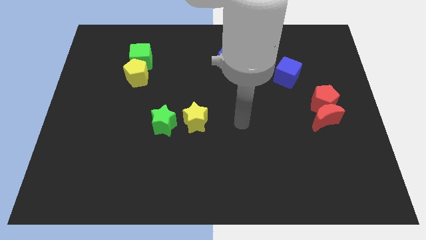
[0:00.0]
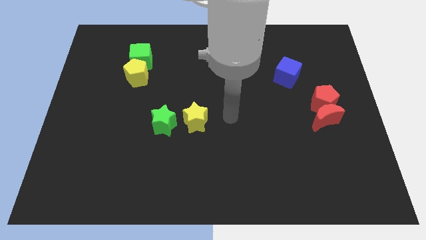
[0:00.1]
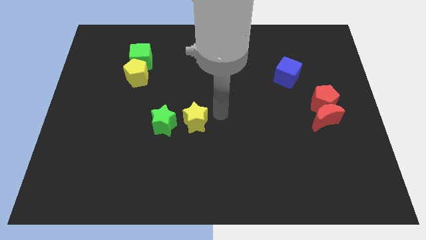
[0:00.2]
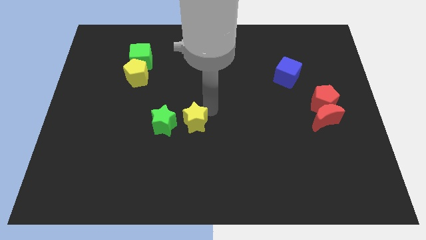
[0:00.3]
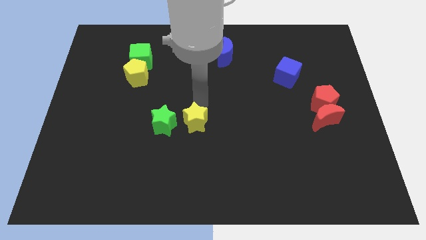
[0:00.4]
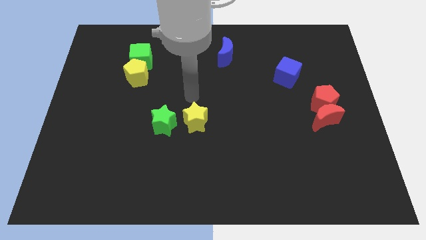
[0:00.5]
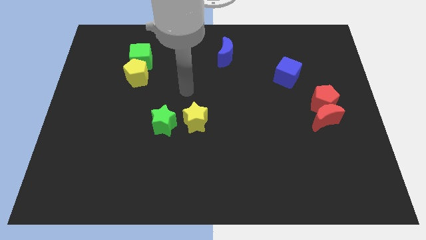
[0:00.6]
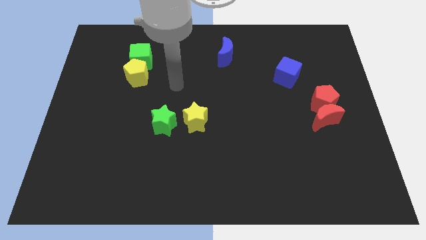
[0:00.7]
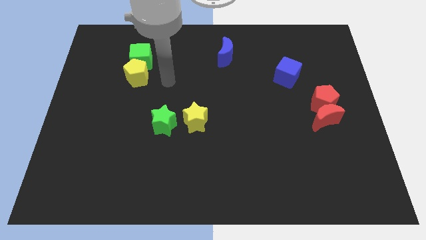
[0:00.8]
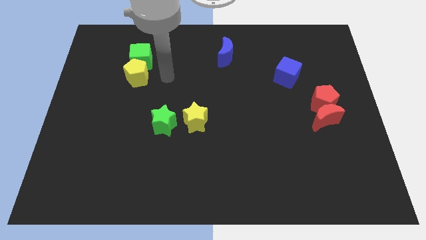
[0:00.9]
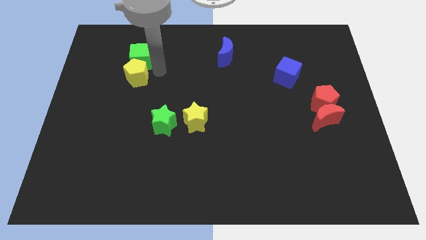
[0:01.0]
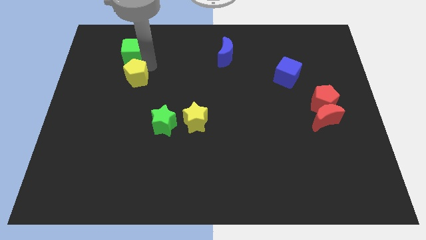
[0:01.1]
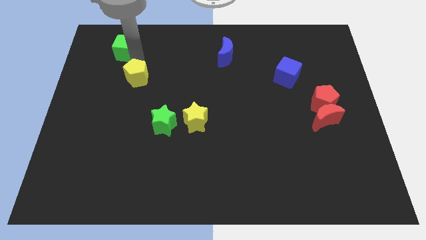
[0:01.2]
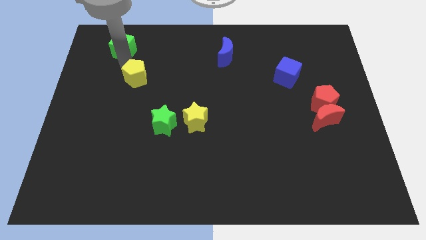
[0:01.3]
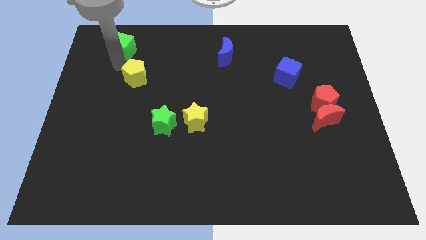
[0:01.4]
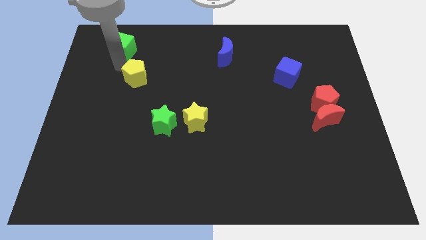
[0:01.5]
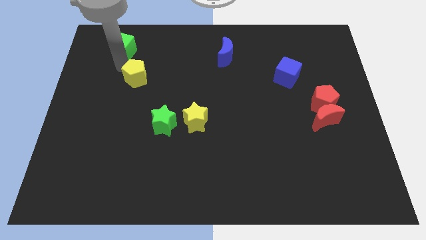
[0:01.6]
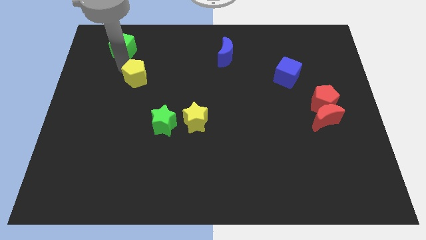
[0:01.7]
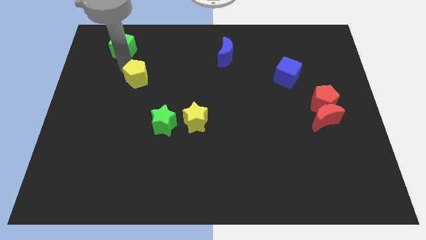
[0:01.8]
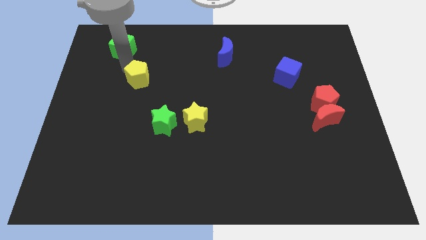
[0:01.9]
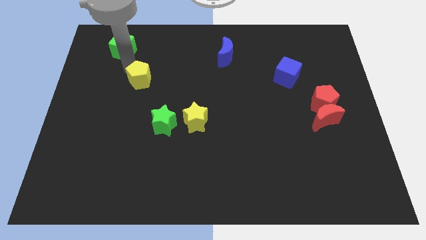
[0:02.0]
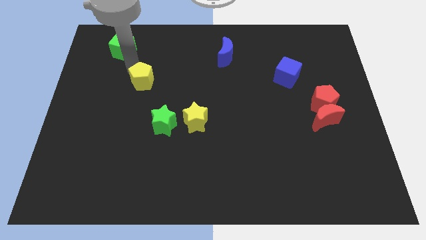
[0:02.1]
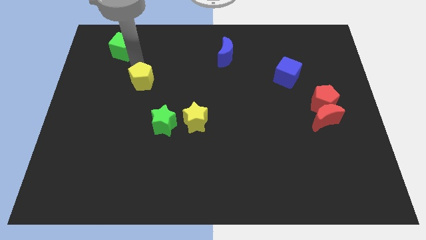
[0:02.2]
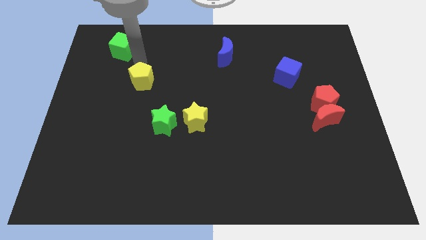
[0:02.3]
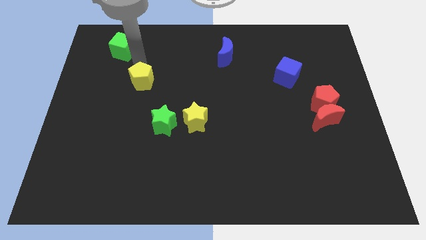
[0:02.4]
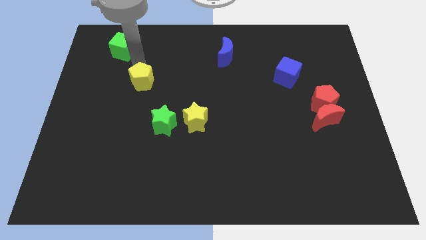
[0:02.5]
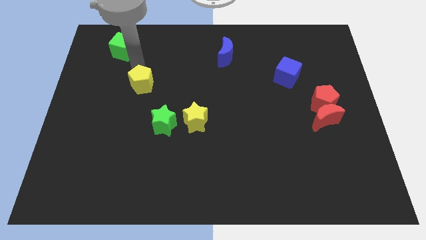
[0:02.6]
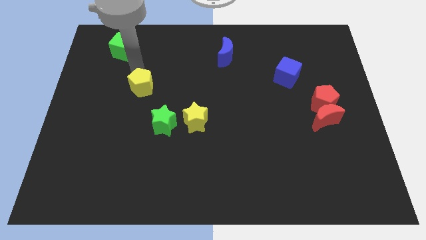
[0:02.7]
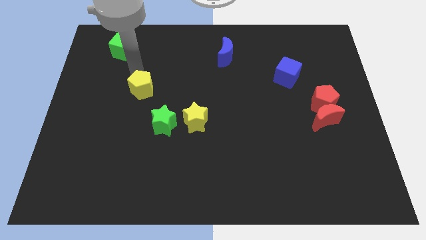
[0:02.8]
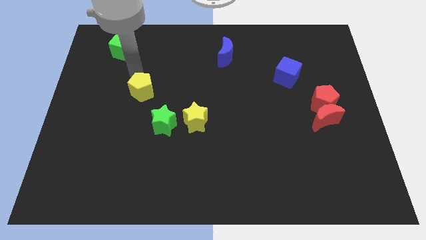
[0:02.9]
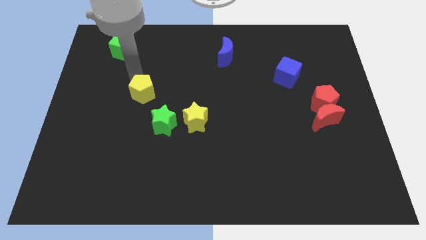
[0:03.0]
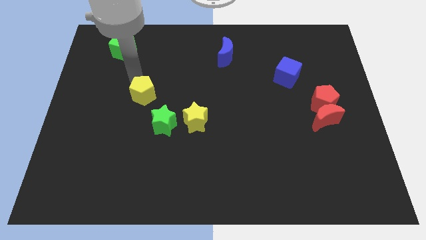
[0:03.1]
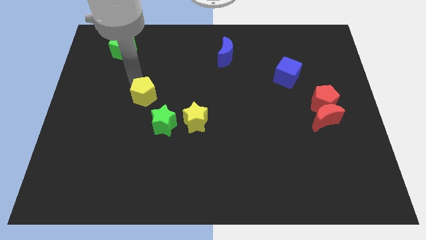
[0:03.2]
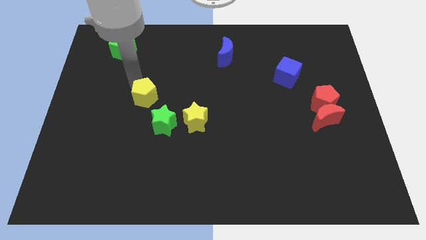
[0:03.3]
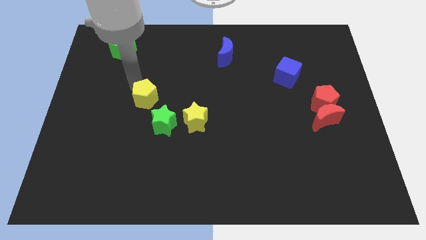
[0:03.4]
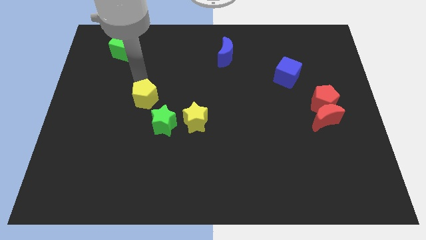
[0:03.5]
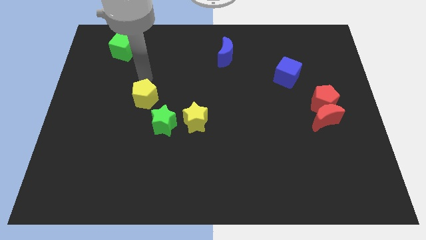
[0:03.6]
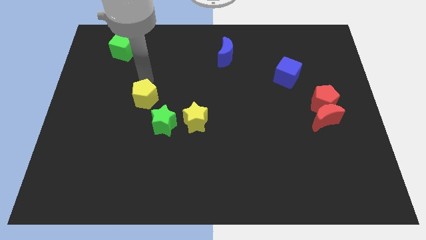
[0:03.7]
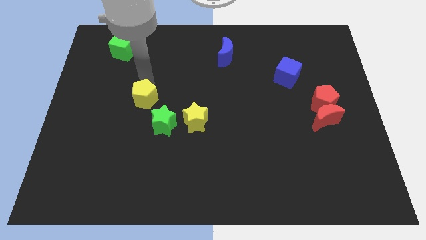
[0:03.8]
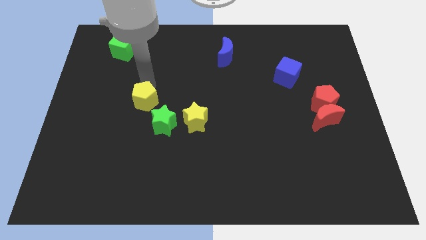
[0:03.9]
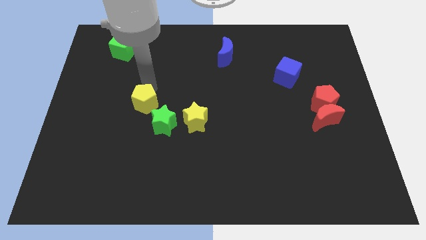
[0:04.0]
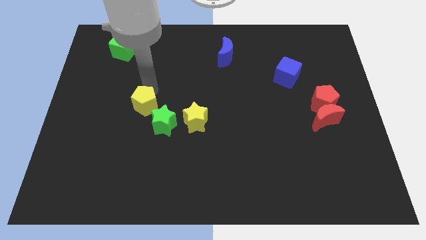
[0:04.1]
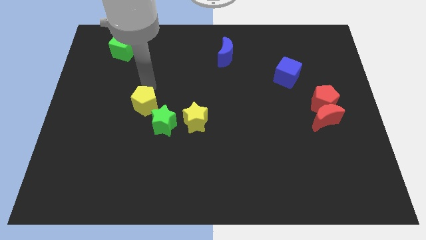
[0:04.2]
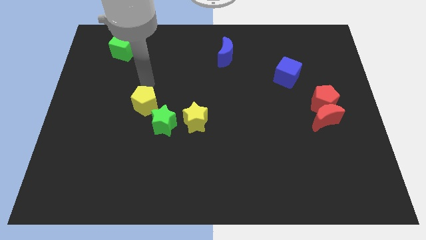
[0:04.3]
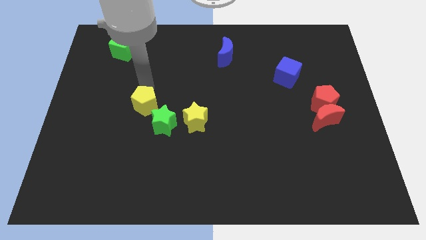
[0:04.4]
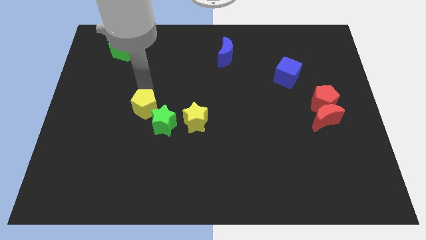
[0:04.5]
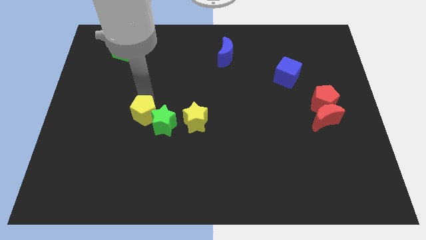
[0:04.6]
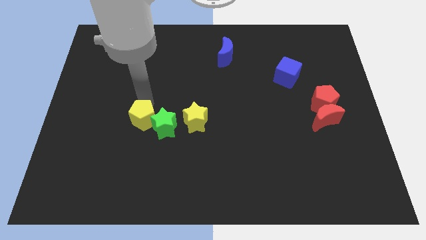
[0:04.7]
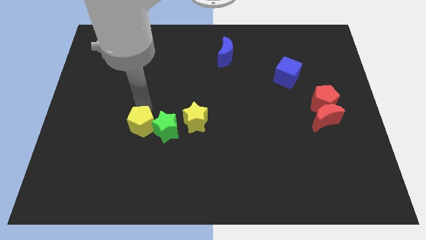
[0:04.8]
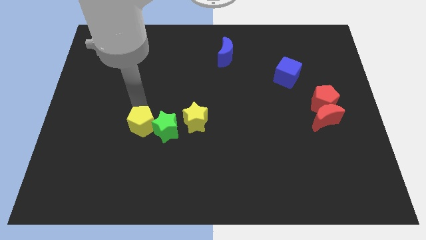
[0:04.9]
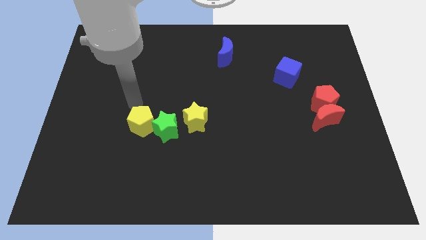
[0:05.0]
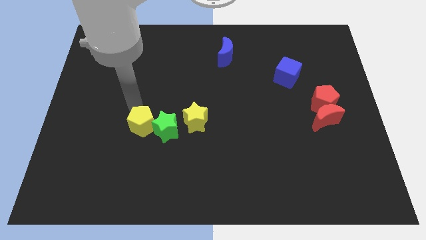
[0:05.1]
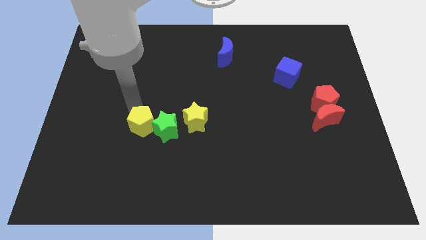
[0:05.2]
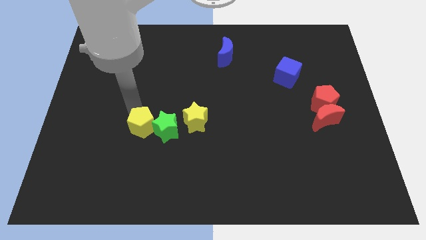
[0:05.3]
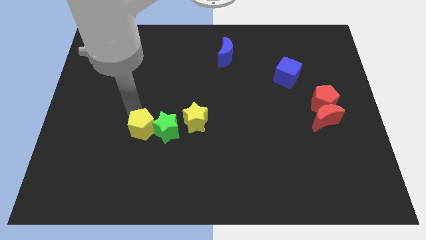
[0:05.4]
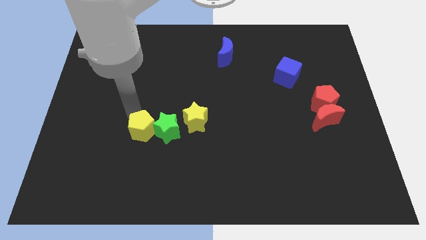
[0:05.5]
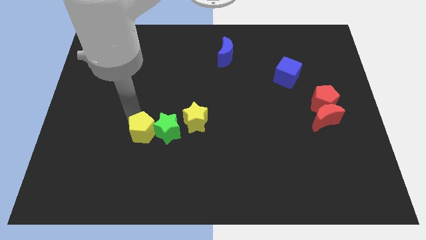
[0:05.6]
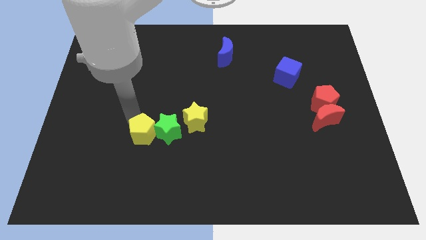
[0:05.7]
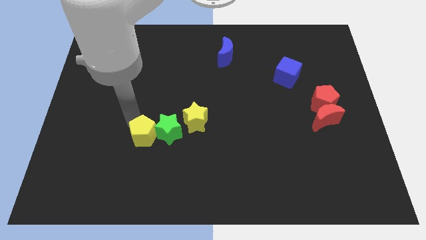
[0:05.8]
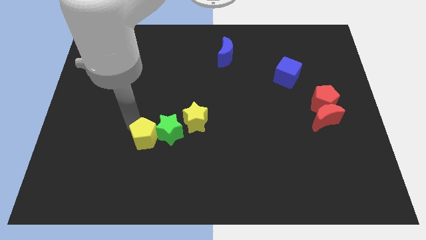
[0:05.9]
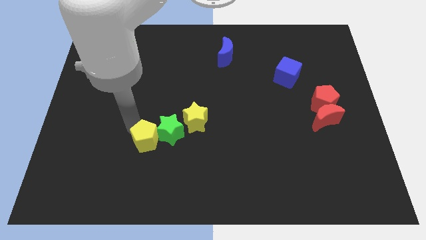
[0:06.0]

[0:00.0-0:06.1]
push the yellow pentagon to the bottom left side of the yellow star
